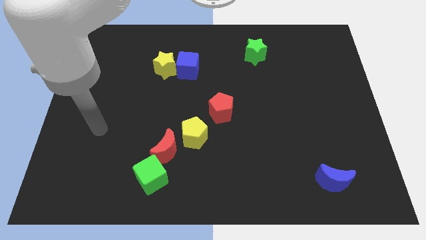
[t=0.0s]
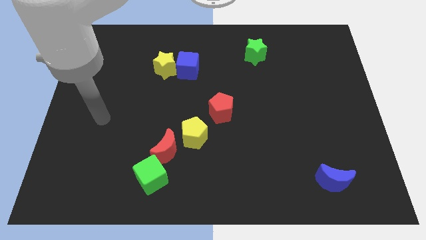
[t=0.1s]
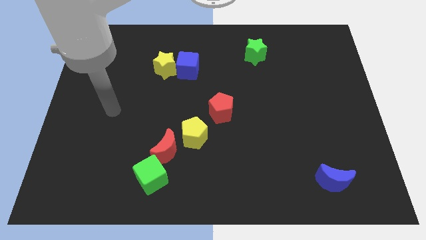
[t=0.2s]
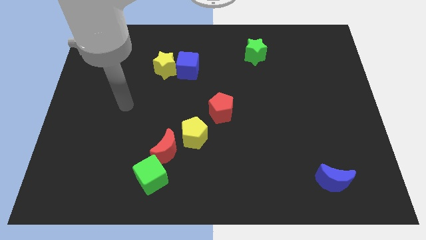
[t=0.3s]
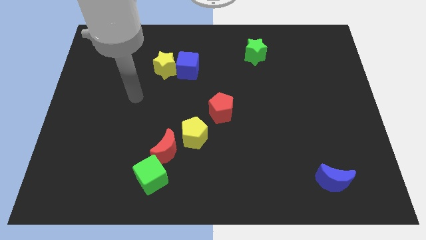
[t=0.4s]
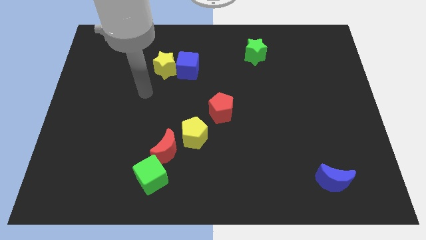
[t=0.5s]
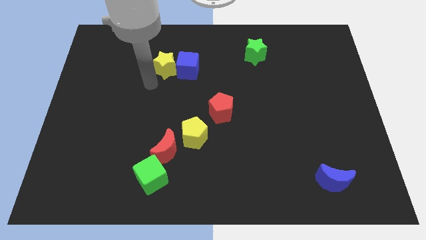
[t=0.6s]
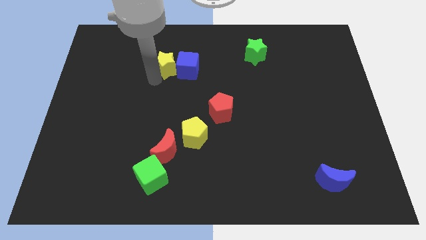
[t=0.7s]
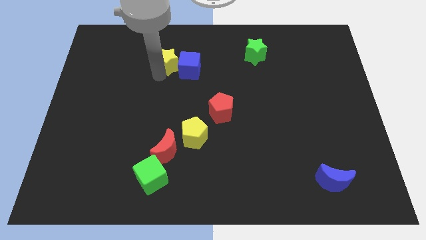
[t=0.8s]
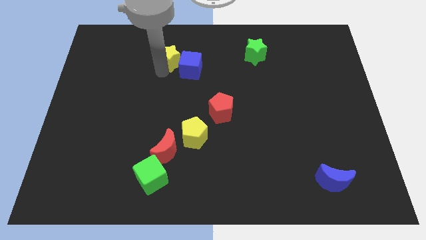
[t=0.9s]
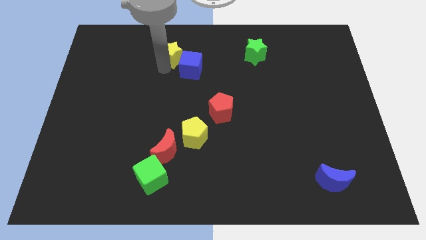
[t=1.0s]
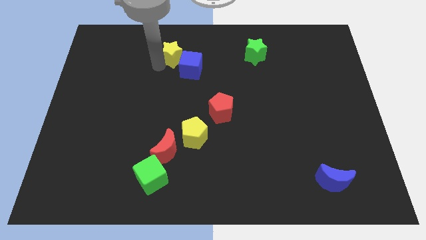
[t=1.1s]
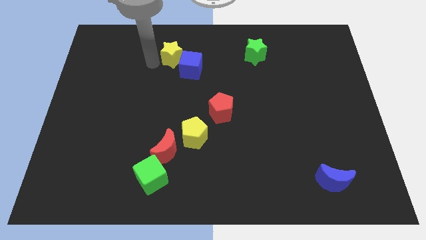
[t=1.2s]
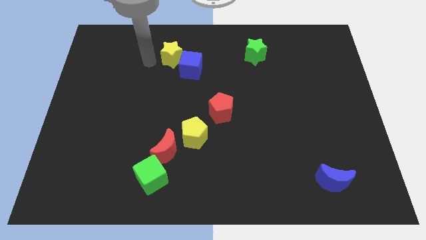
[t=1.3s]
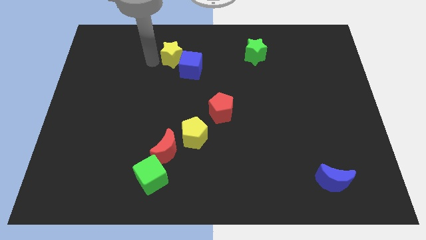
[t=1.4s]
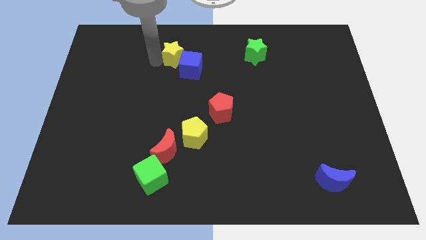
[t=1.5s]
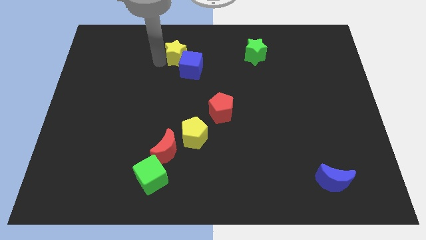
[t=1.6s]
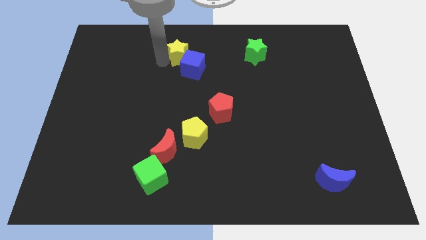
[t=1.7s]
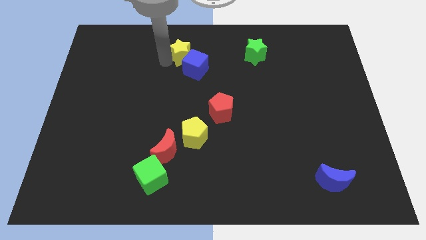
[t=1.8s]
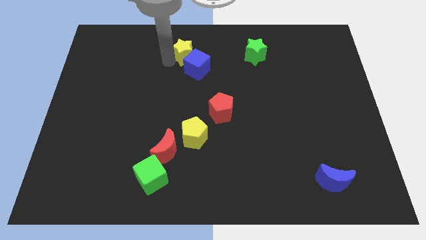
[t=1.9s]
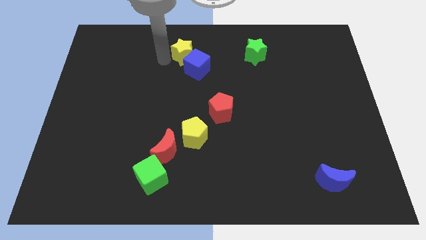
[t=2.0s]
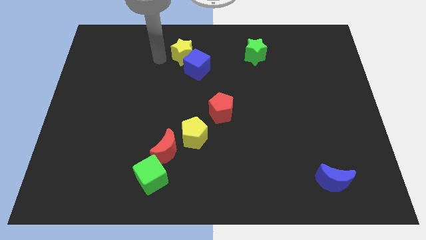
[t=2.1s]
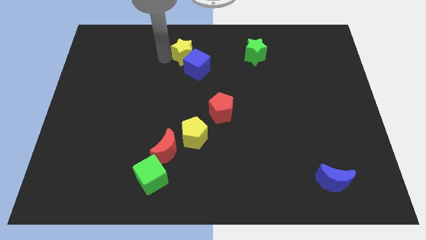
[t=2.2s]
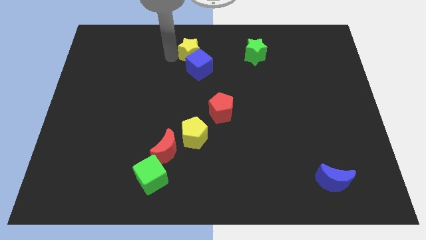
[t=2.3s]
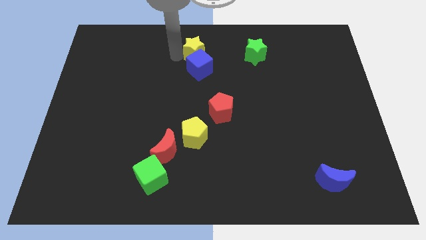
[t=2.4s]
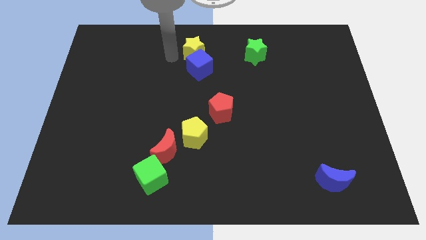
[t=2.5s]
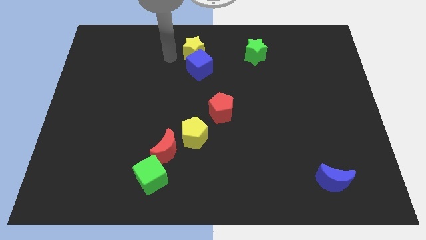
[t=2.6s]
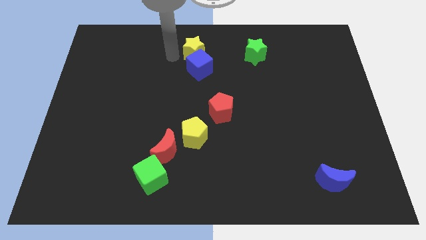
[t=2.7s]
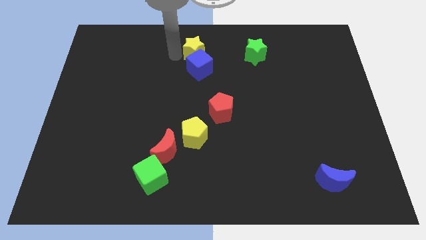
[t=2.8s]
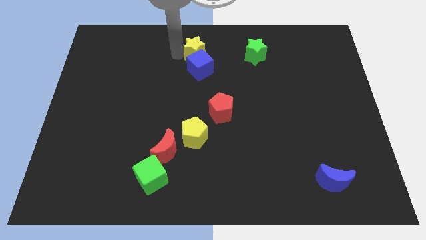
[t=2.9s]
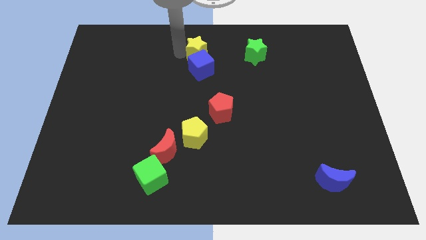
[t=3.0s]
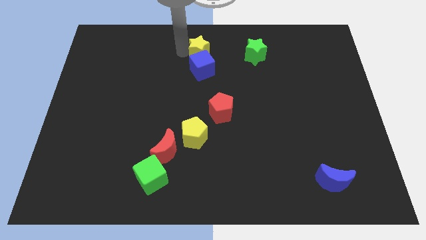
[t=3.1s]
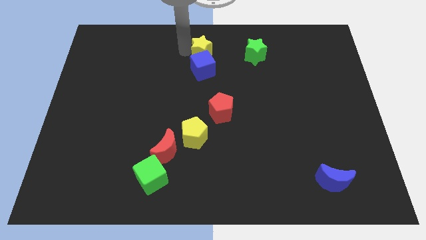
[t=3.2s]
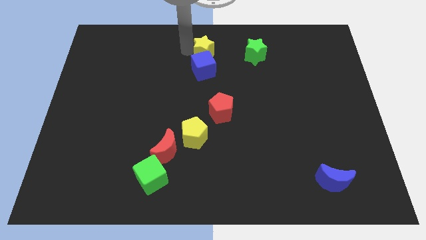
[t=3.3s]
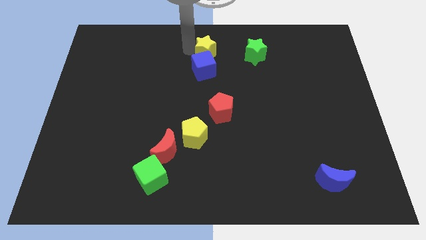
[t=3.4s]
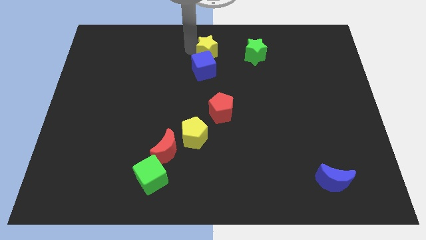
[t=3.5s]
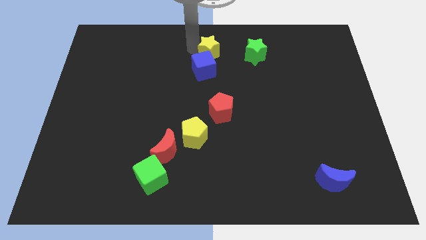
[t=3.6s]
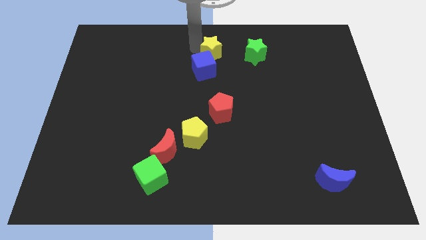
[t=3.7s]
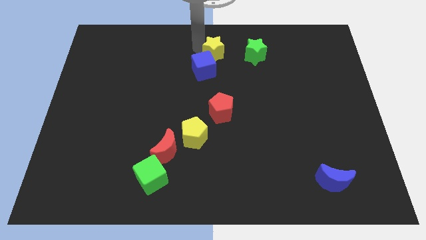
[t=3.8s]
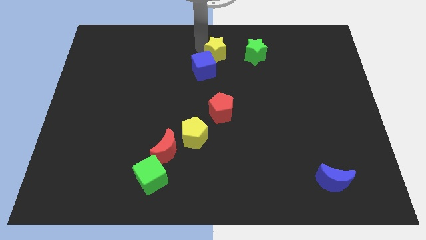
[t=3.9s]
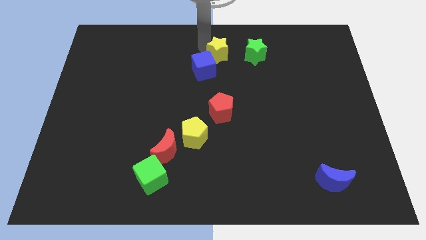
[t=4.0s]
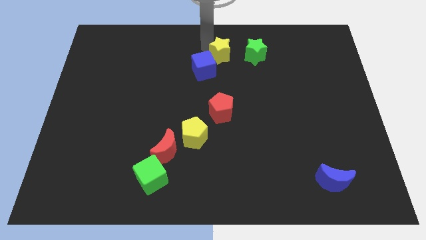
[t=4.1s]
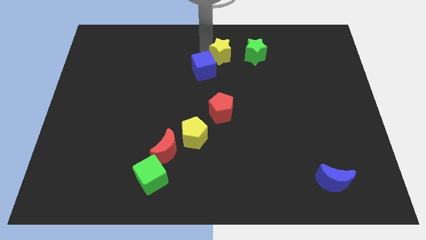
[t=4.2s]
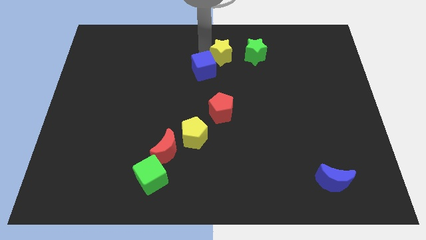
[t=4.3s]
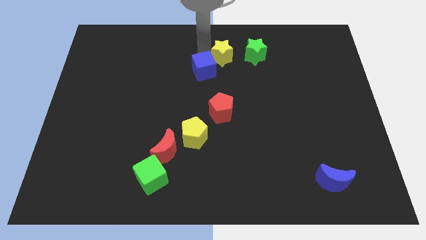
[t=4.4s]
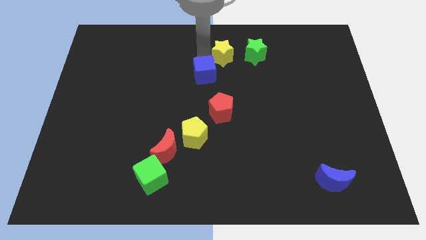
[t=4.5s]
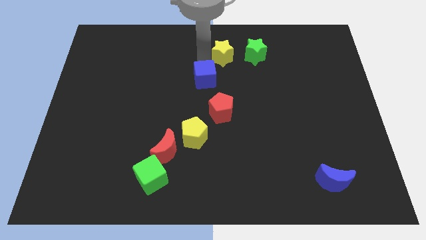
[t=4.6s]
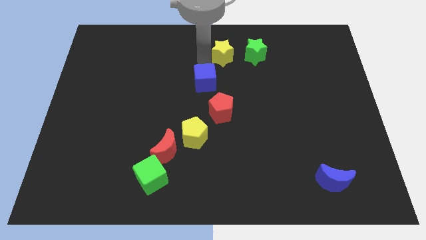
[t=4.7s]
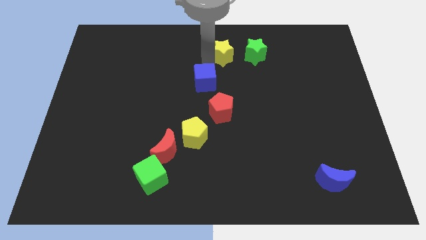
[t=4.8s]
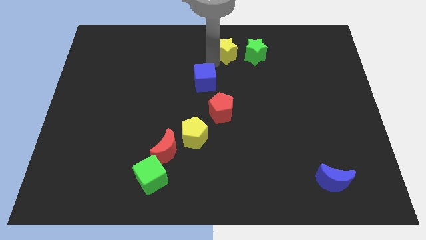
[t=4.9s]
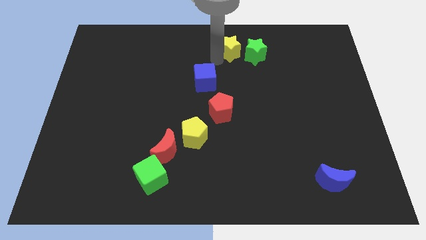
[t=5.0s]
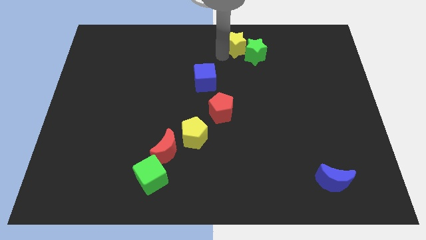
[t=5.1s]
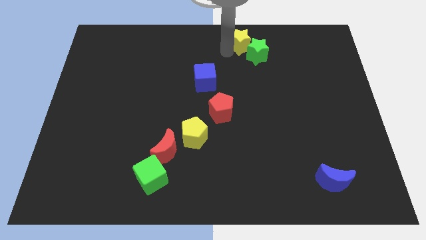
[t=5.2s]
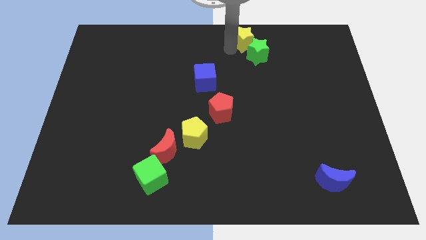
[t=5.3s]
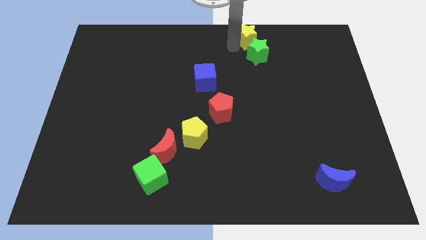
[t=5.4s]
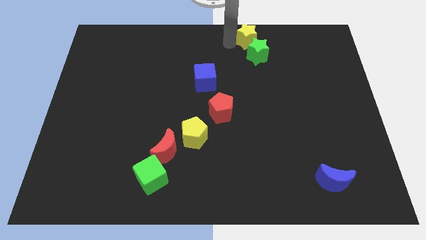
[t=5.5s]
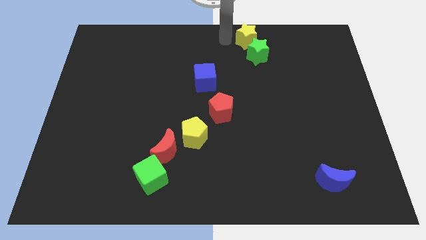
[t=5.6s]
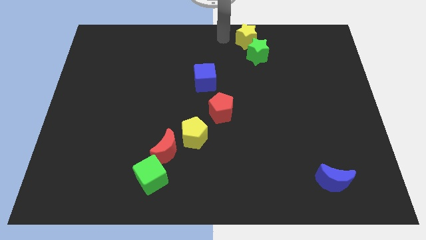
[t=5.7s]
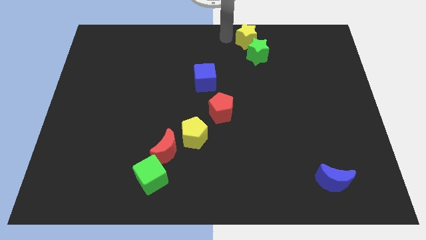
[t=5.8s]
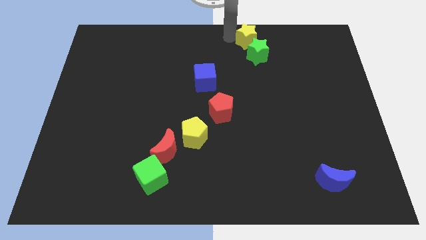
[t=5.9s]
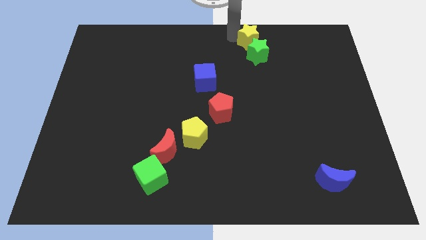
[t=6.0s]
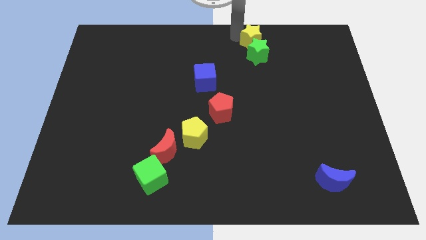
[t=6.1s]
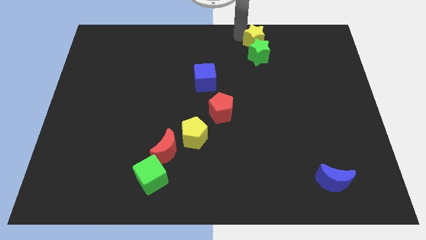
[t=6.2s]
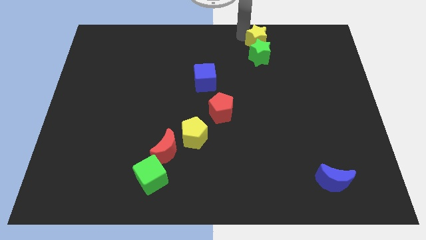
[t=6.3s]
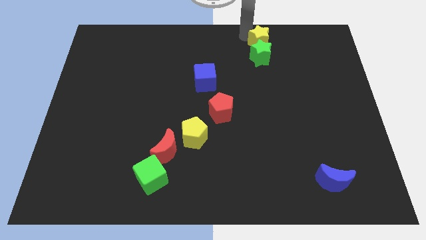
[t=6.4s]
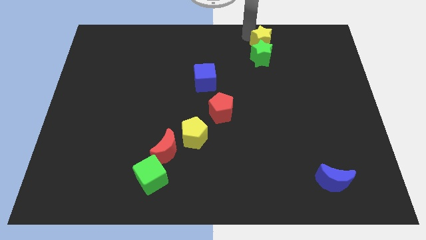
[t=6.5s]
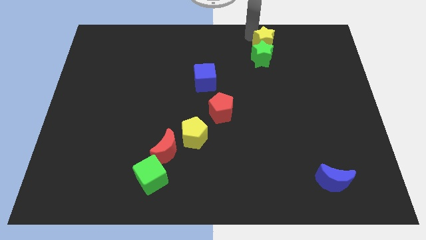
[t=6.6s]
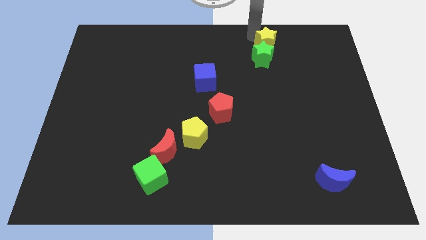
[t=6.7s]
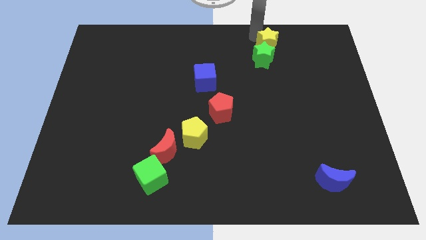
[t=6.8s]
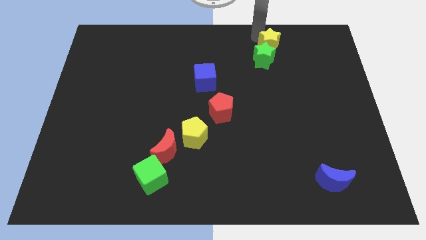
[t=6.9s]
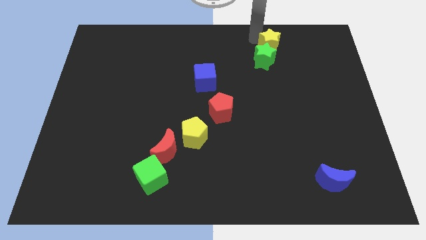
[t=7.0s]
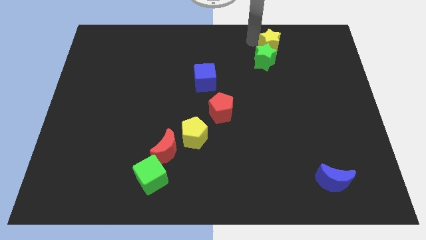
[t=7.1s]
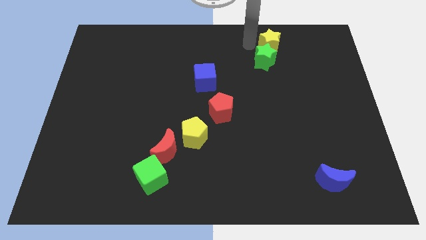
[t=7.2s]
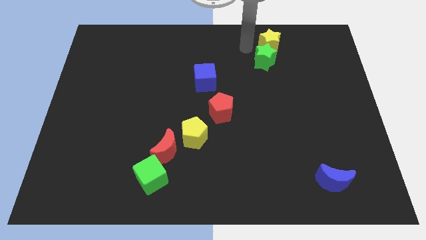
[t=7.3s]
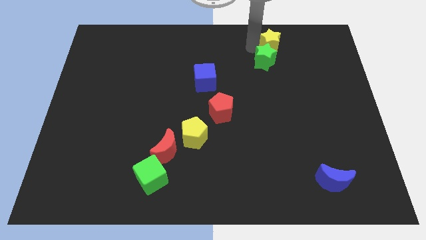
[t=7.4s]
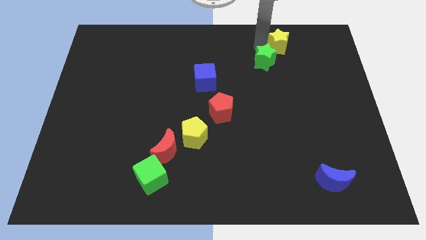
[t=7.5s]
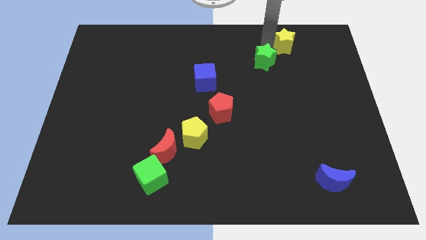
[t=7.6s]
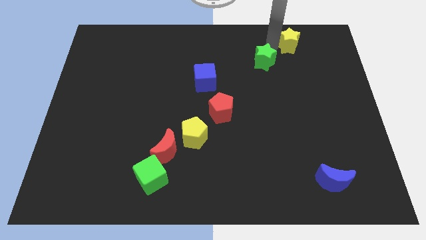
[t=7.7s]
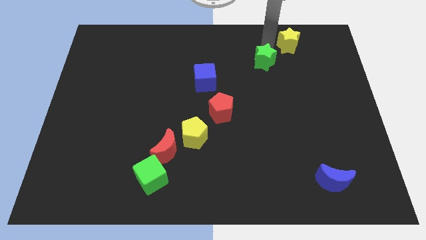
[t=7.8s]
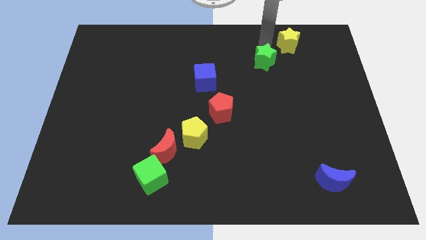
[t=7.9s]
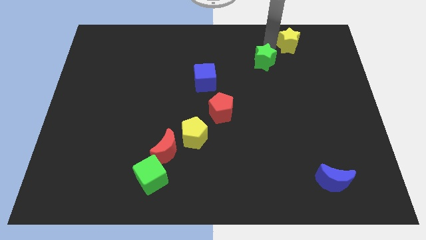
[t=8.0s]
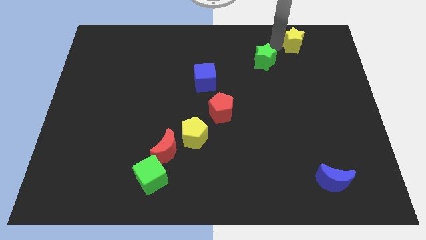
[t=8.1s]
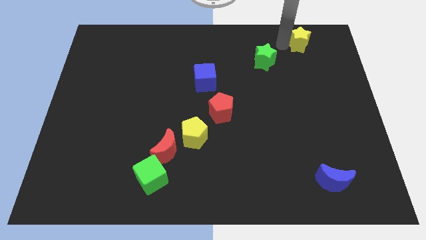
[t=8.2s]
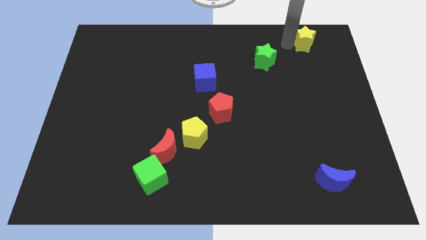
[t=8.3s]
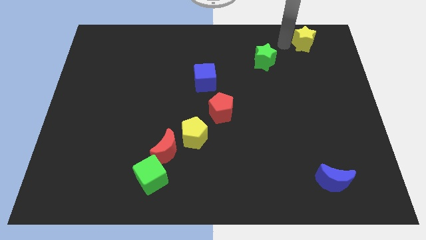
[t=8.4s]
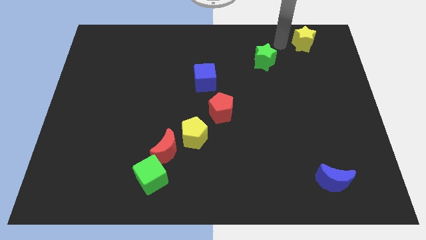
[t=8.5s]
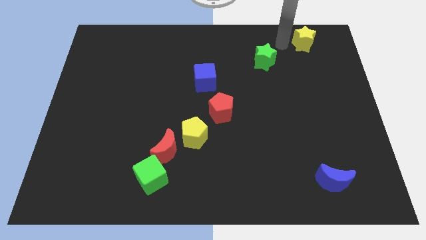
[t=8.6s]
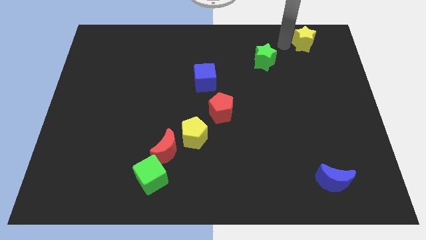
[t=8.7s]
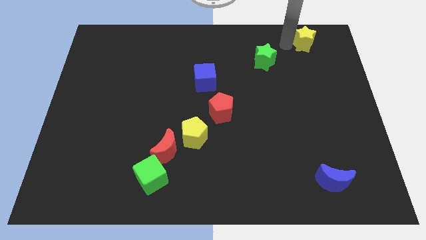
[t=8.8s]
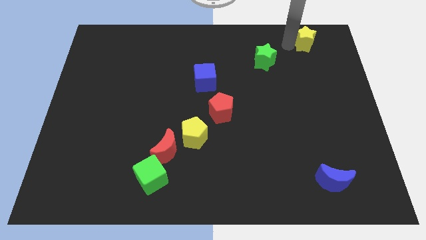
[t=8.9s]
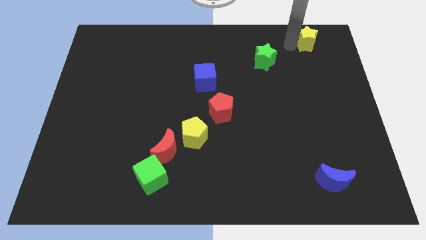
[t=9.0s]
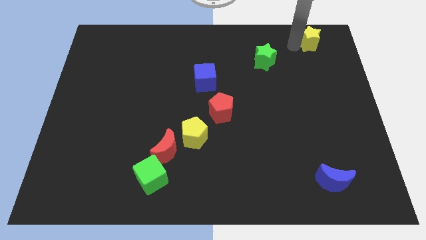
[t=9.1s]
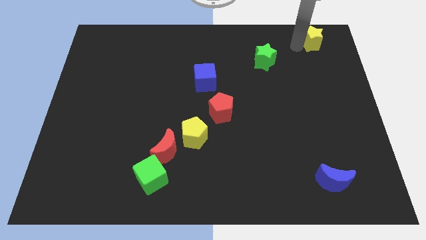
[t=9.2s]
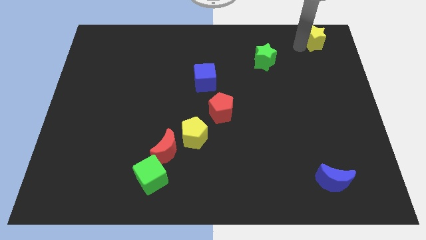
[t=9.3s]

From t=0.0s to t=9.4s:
move the yellow star to the upper right corner
